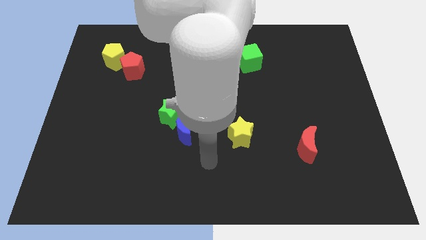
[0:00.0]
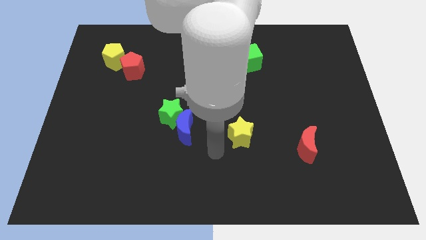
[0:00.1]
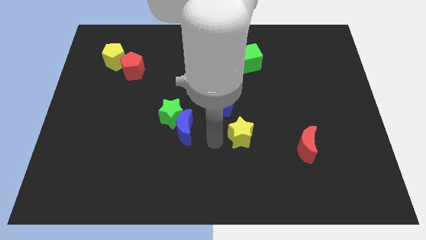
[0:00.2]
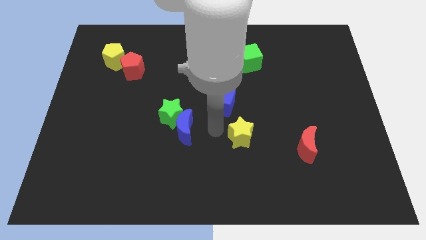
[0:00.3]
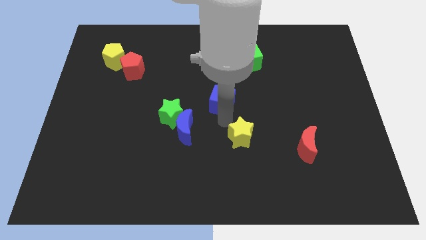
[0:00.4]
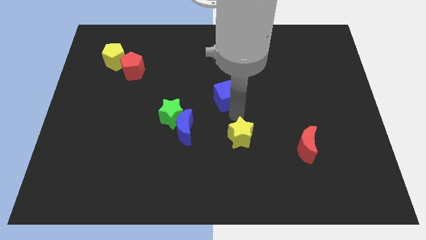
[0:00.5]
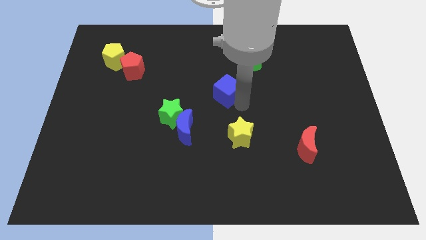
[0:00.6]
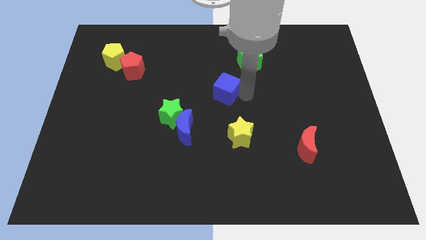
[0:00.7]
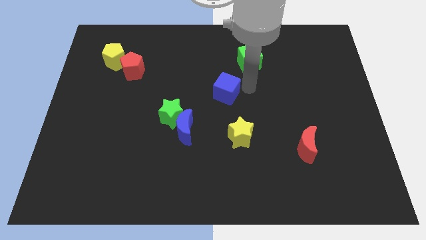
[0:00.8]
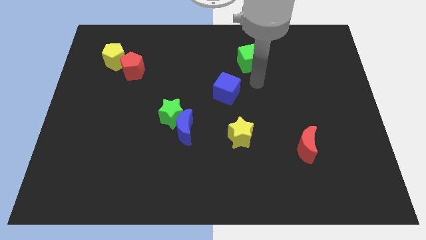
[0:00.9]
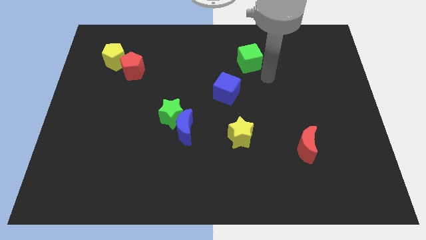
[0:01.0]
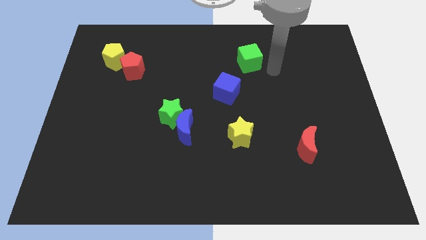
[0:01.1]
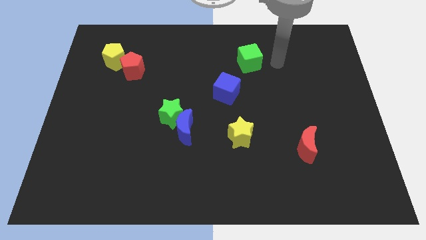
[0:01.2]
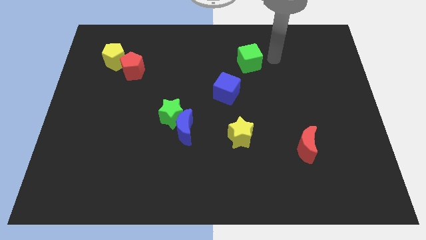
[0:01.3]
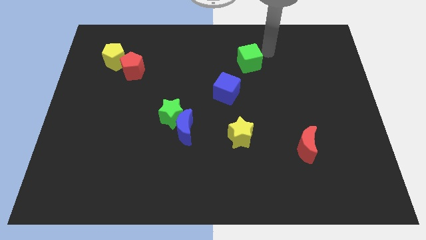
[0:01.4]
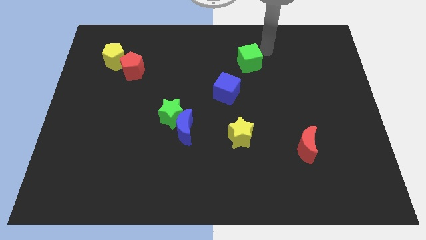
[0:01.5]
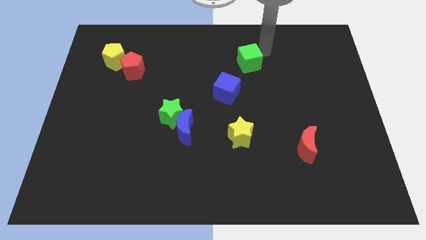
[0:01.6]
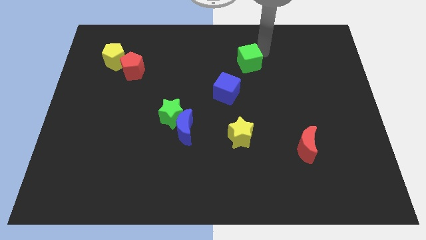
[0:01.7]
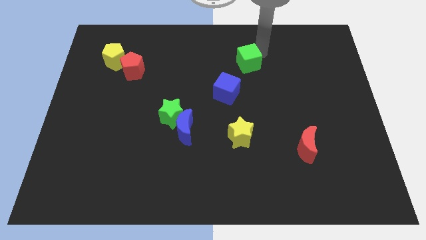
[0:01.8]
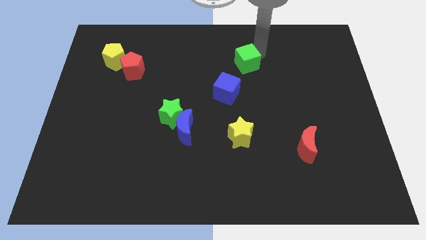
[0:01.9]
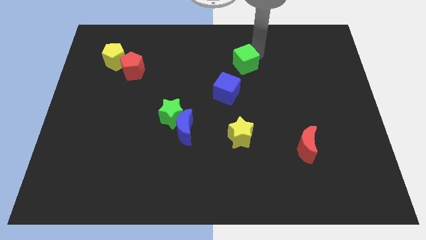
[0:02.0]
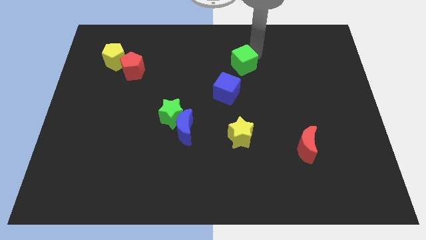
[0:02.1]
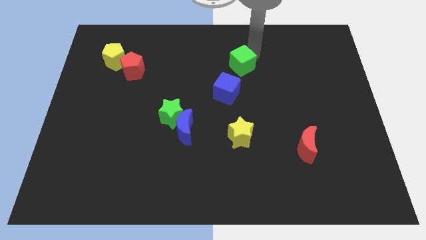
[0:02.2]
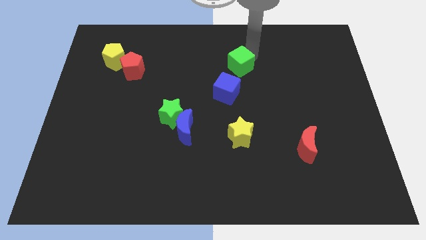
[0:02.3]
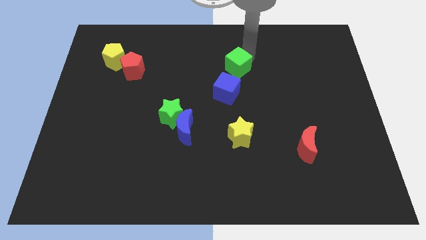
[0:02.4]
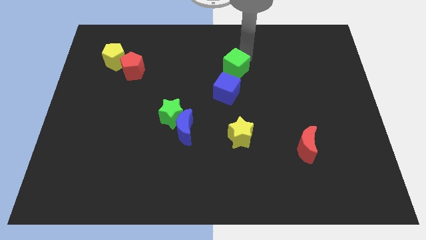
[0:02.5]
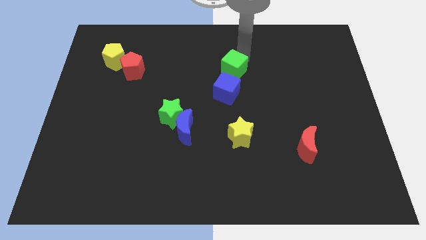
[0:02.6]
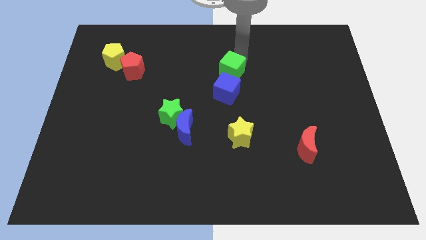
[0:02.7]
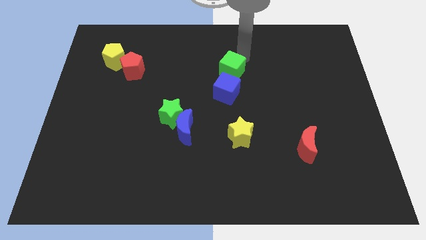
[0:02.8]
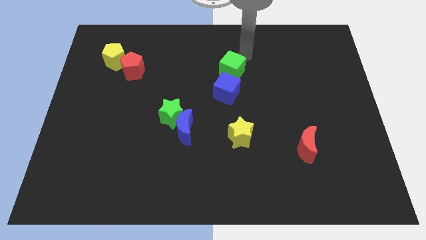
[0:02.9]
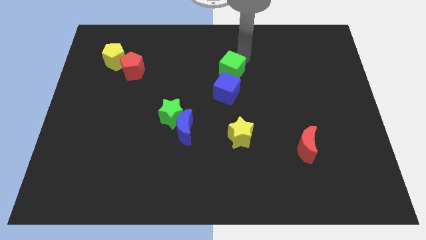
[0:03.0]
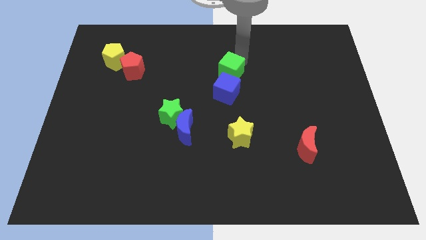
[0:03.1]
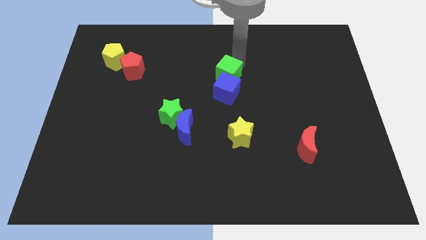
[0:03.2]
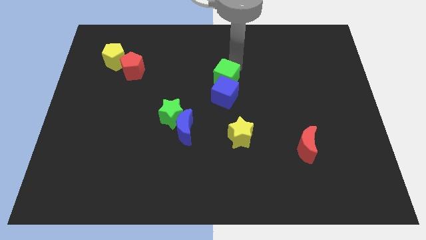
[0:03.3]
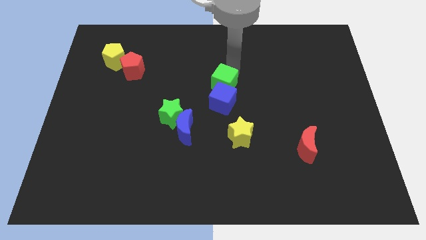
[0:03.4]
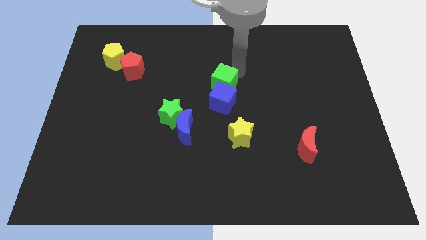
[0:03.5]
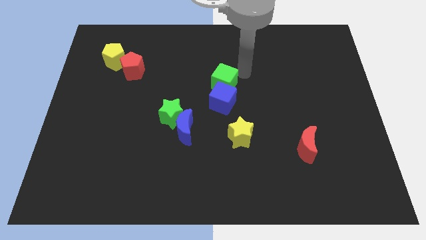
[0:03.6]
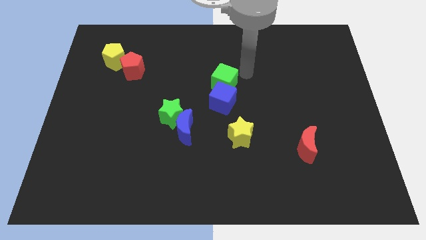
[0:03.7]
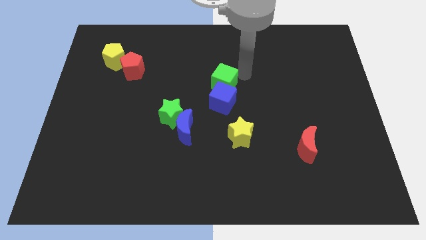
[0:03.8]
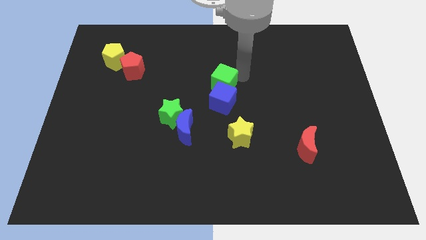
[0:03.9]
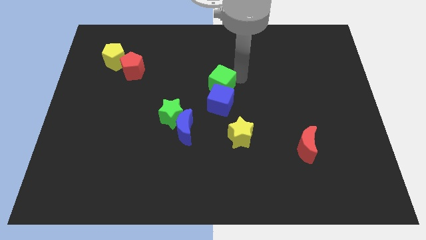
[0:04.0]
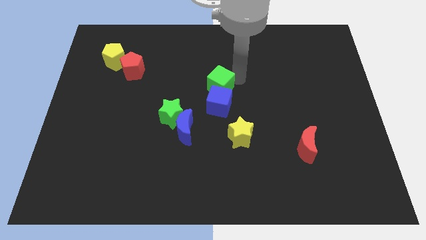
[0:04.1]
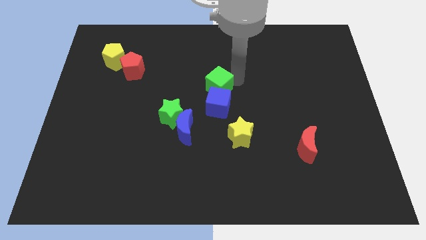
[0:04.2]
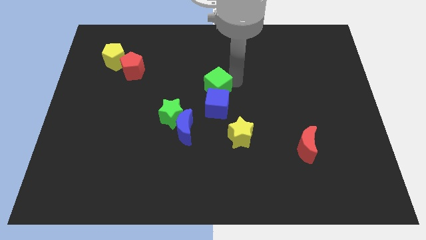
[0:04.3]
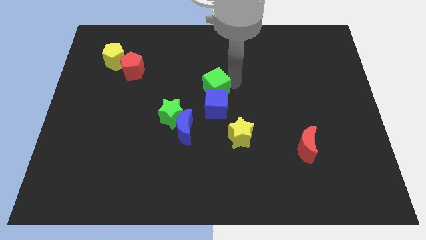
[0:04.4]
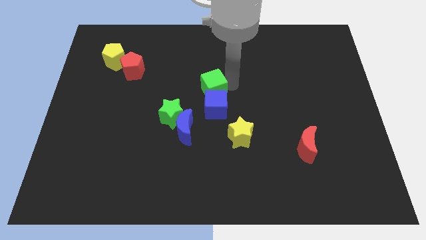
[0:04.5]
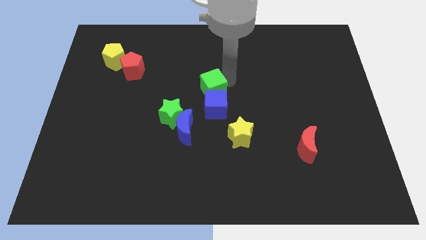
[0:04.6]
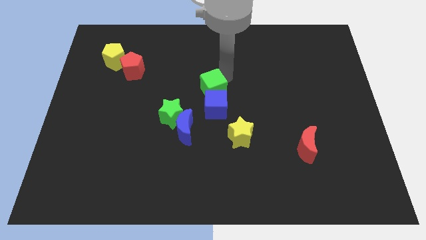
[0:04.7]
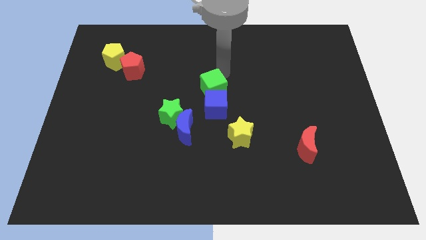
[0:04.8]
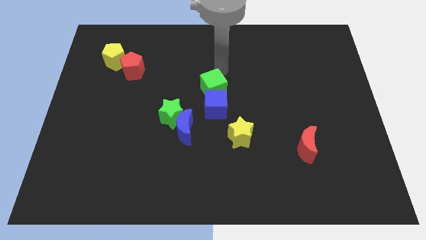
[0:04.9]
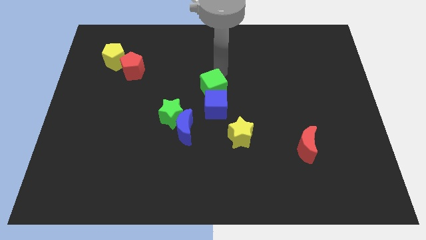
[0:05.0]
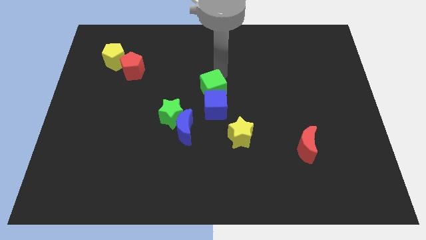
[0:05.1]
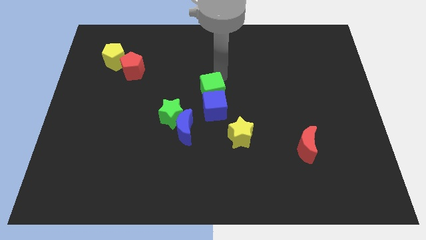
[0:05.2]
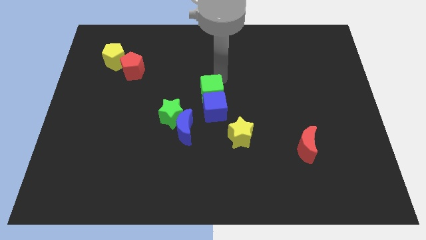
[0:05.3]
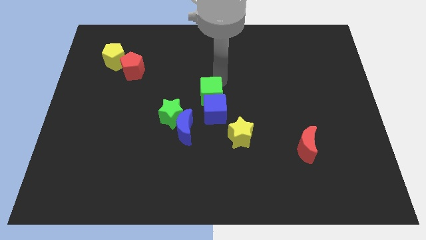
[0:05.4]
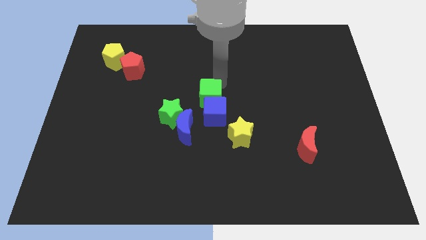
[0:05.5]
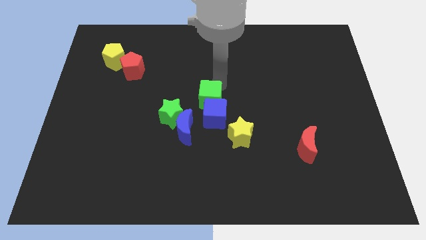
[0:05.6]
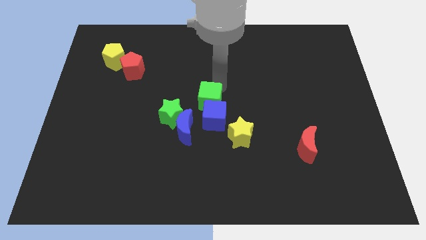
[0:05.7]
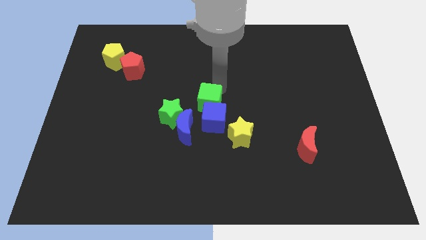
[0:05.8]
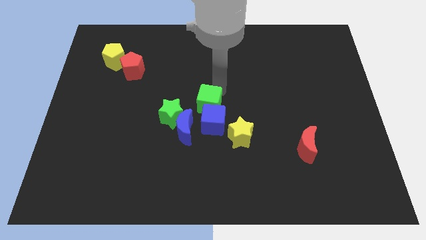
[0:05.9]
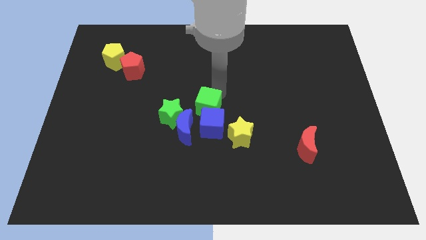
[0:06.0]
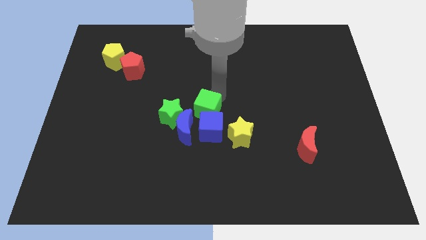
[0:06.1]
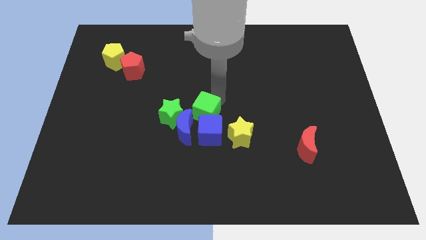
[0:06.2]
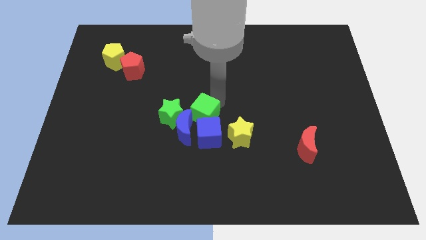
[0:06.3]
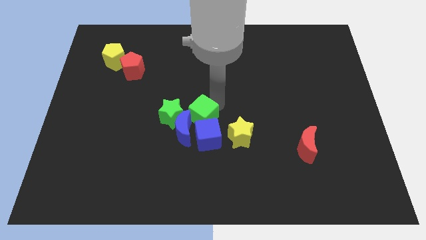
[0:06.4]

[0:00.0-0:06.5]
push the green cube towards the blue moon
